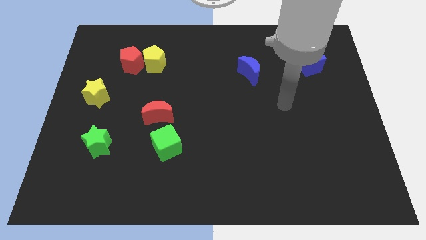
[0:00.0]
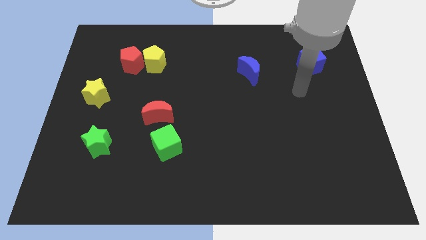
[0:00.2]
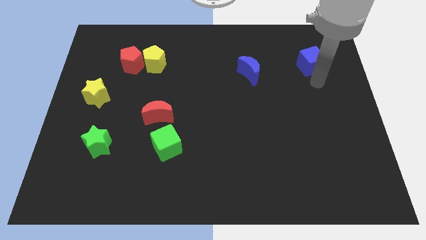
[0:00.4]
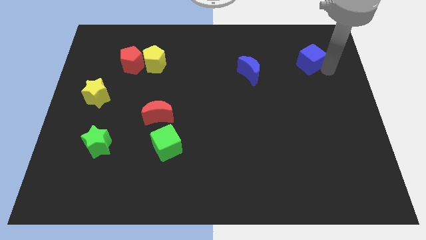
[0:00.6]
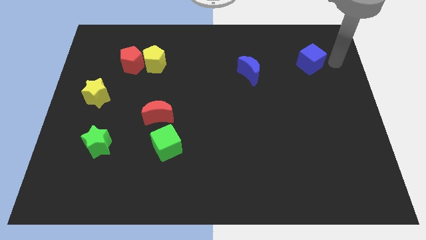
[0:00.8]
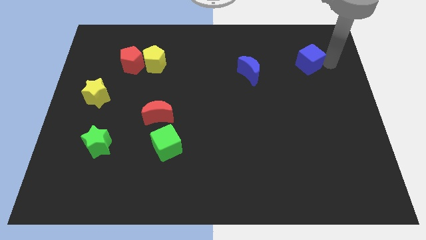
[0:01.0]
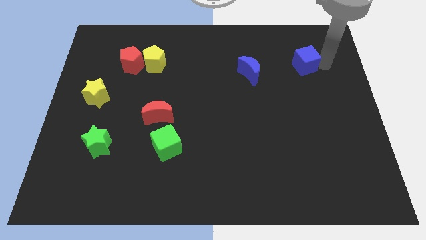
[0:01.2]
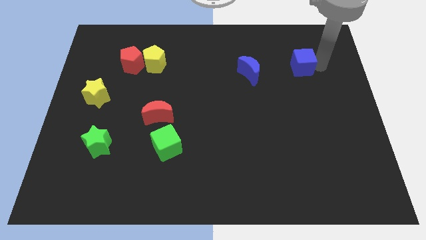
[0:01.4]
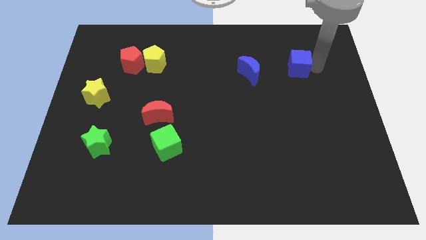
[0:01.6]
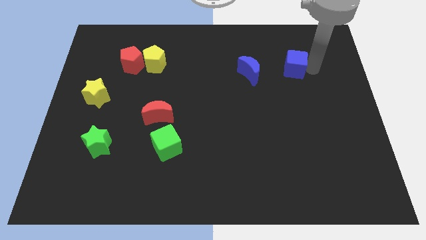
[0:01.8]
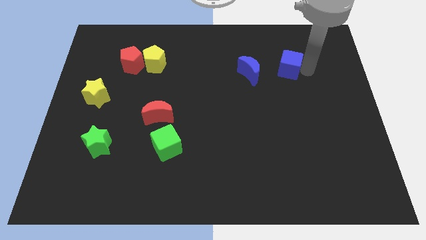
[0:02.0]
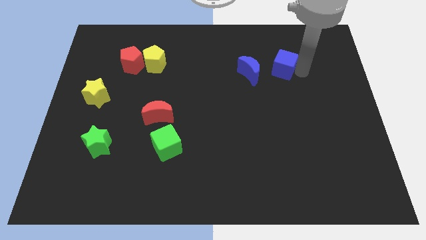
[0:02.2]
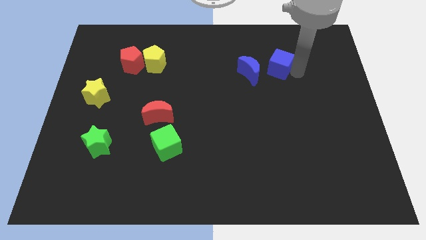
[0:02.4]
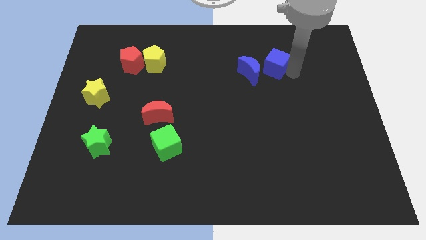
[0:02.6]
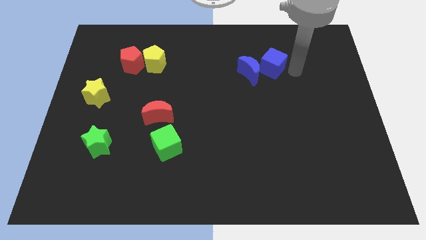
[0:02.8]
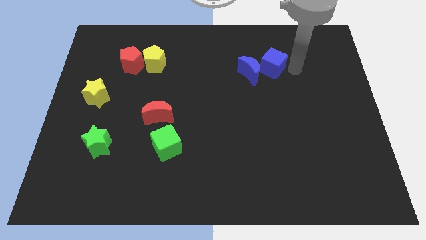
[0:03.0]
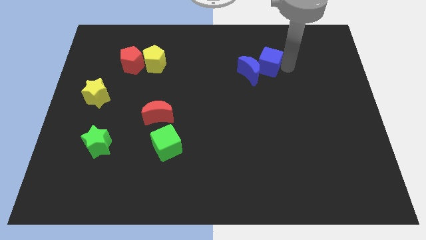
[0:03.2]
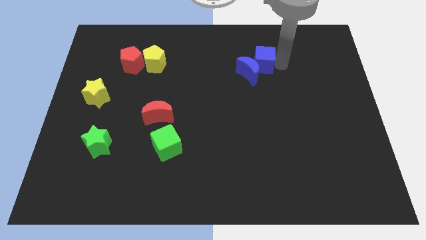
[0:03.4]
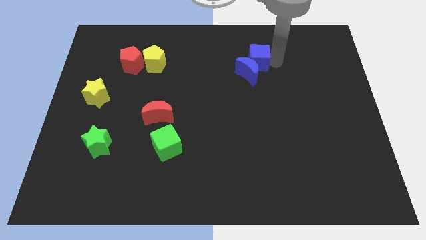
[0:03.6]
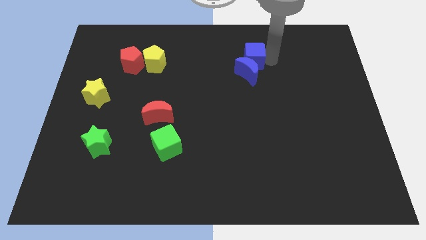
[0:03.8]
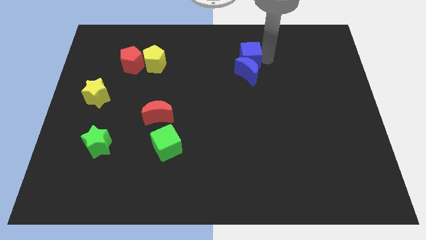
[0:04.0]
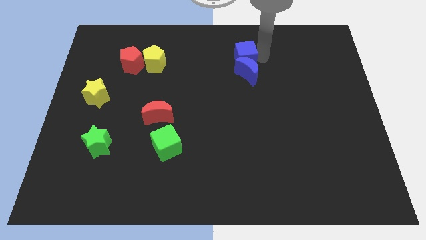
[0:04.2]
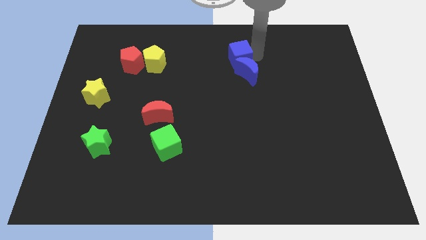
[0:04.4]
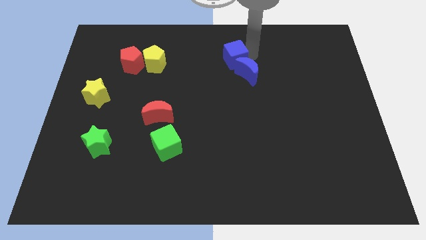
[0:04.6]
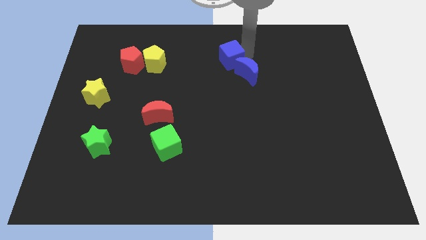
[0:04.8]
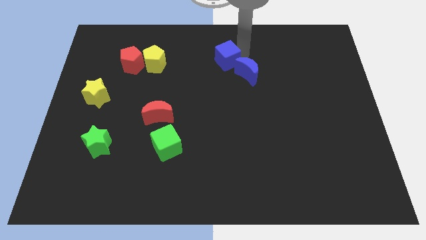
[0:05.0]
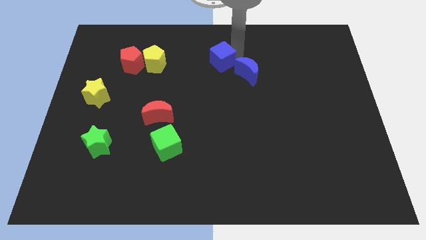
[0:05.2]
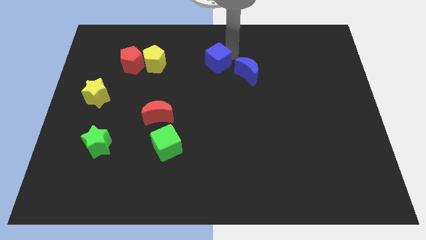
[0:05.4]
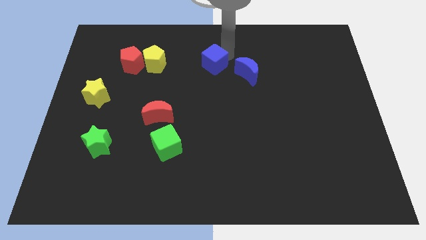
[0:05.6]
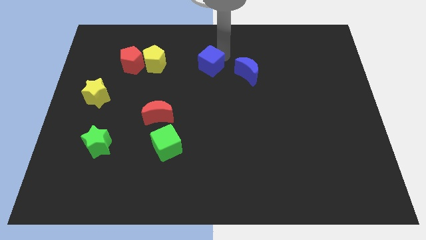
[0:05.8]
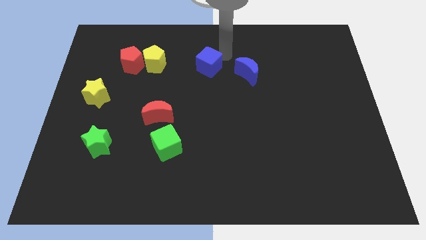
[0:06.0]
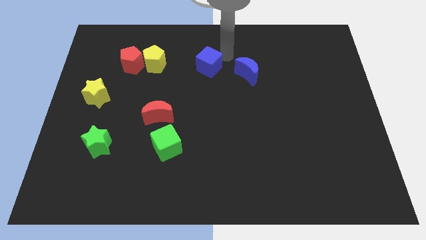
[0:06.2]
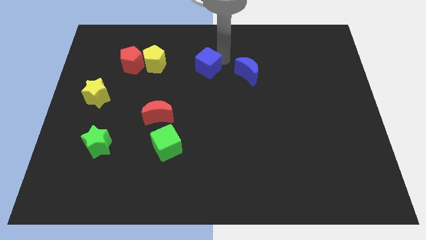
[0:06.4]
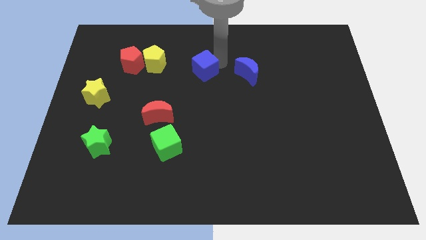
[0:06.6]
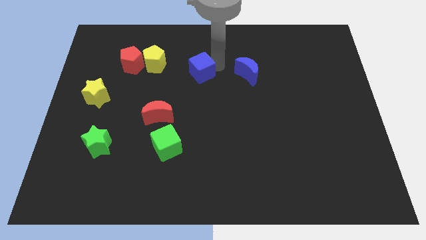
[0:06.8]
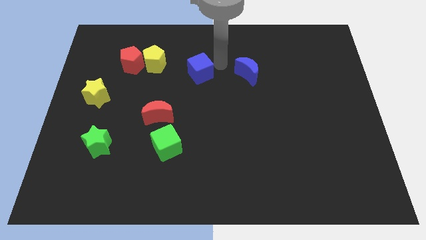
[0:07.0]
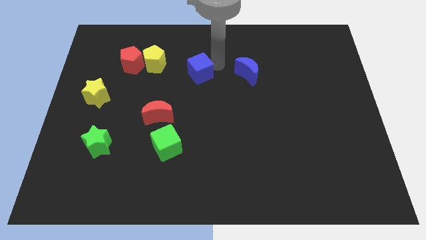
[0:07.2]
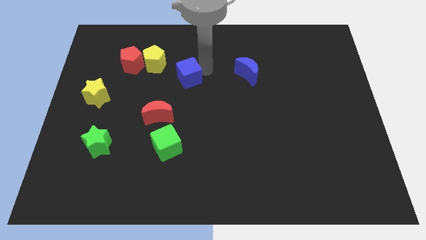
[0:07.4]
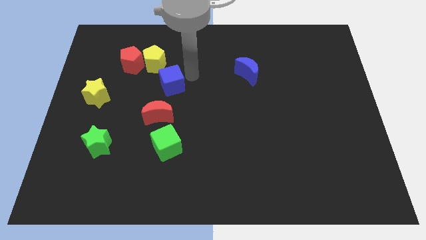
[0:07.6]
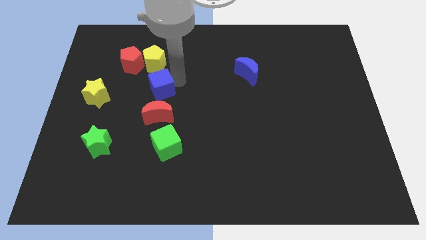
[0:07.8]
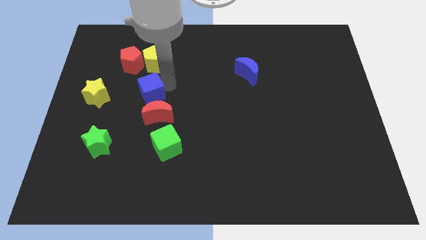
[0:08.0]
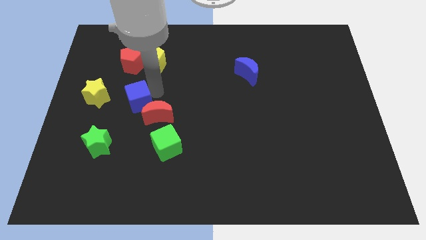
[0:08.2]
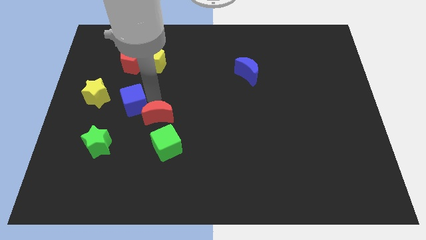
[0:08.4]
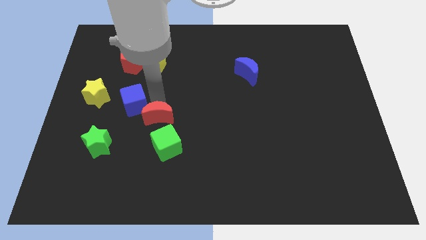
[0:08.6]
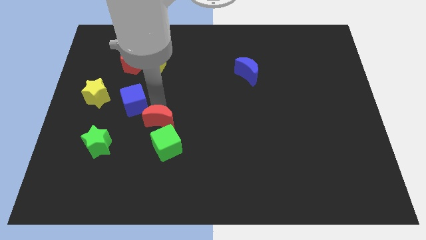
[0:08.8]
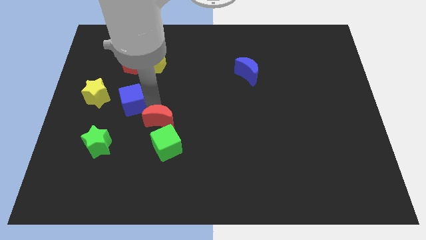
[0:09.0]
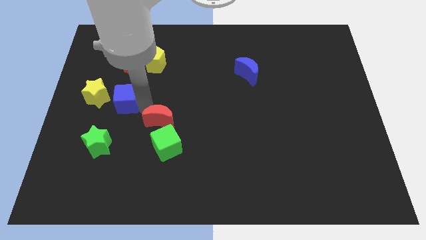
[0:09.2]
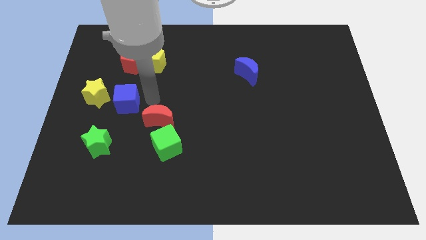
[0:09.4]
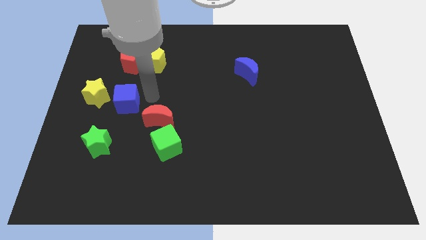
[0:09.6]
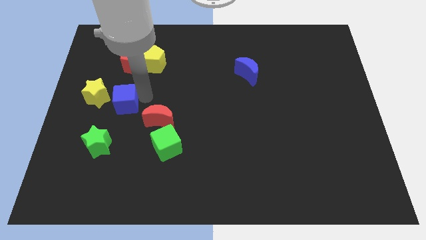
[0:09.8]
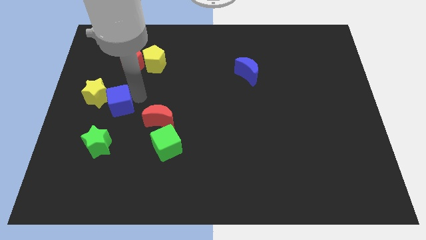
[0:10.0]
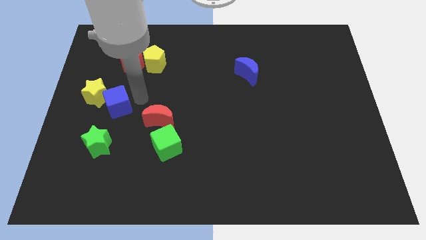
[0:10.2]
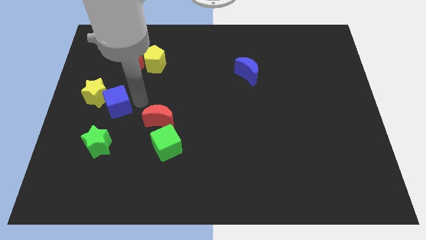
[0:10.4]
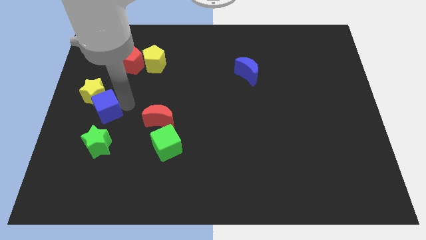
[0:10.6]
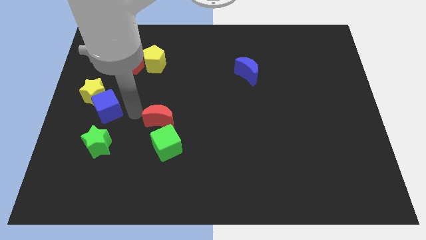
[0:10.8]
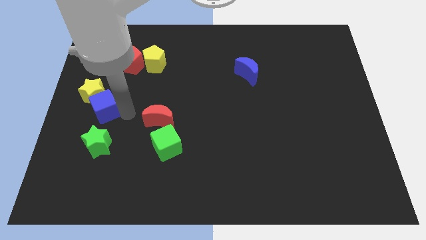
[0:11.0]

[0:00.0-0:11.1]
slide the blue cube to the left side of the board

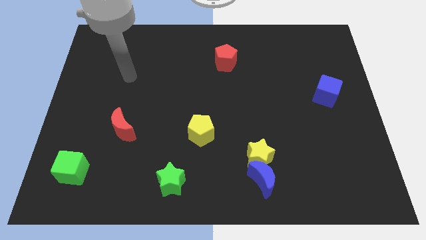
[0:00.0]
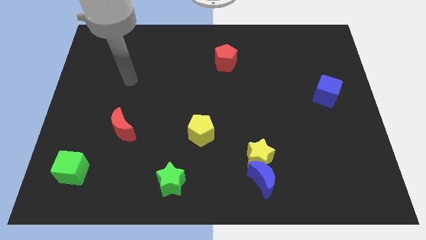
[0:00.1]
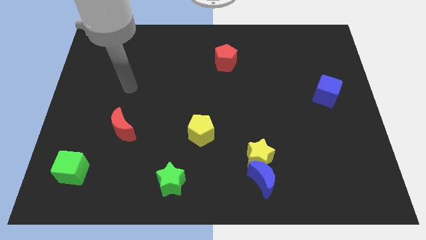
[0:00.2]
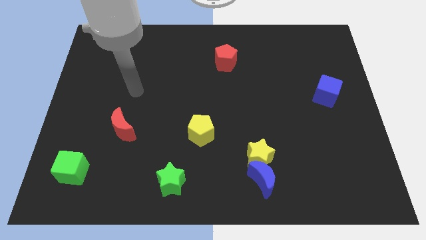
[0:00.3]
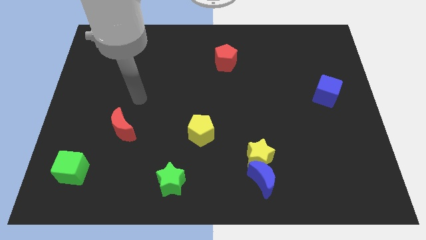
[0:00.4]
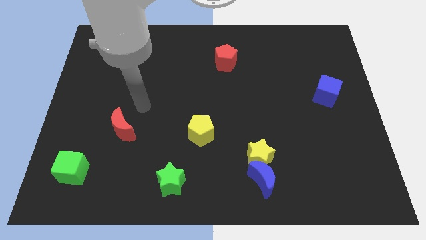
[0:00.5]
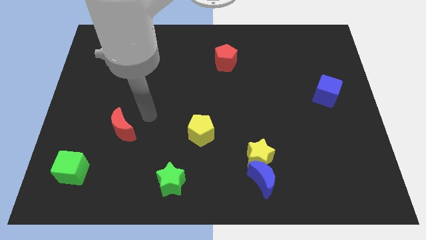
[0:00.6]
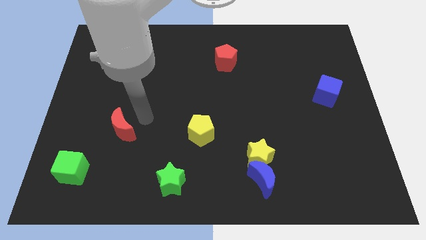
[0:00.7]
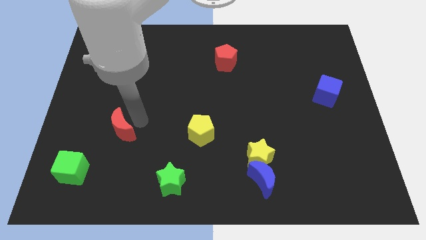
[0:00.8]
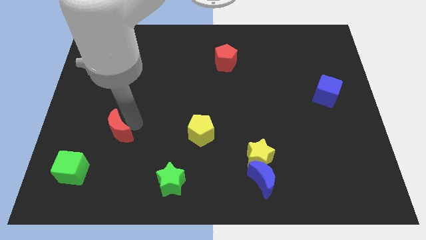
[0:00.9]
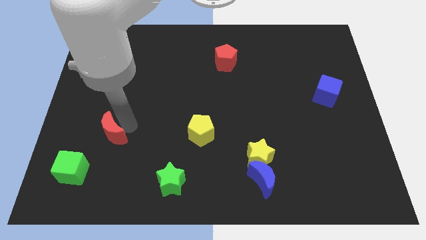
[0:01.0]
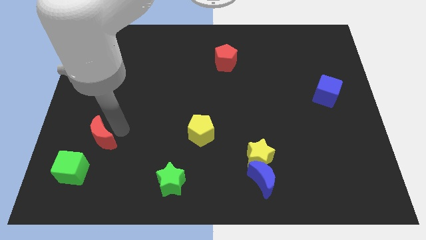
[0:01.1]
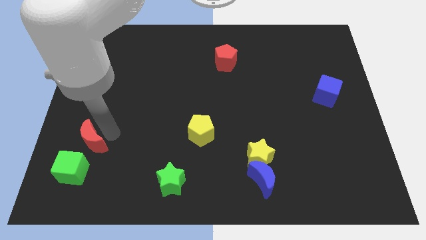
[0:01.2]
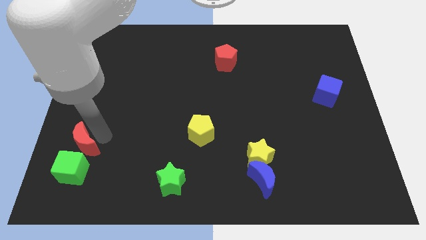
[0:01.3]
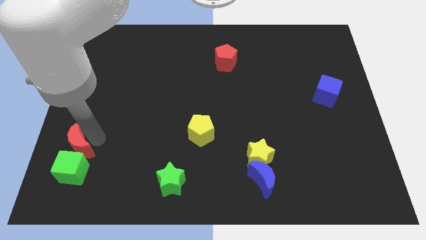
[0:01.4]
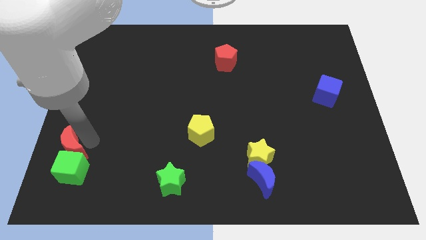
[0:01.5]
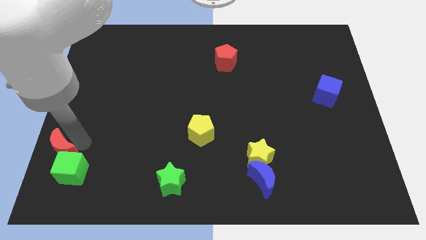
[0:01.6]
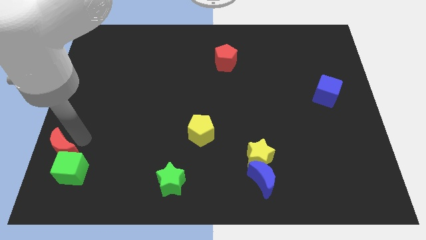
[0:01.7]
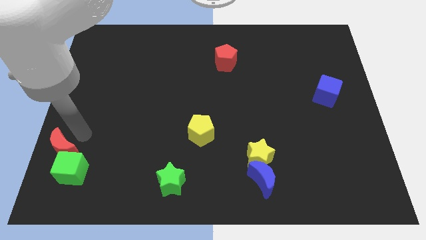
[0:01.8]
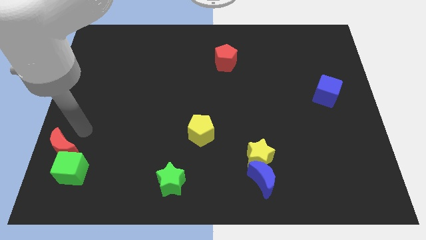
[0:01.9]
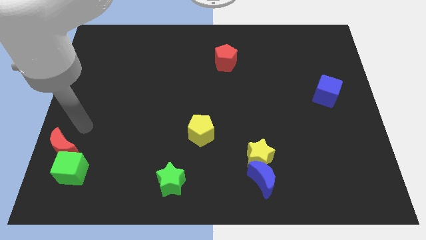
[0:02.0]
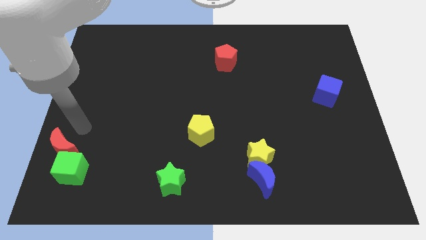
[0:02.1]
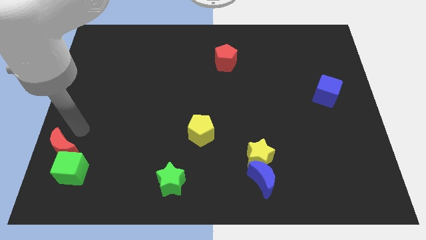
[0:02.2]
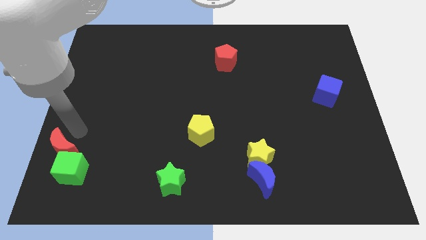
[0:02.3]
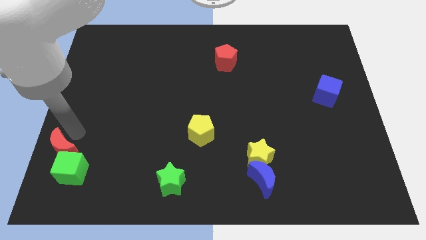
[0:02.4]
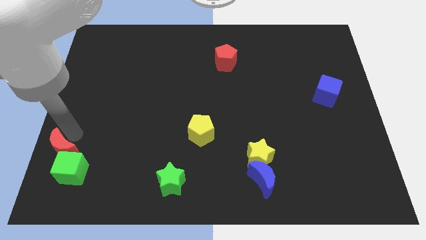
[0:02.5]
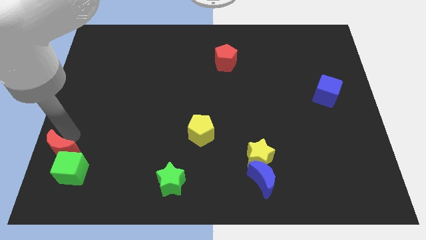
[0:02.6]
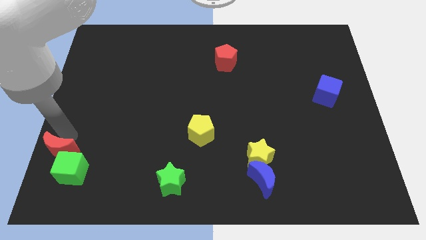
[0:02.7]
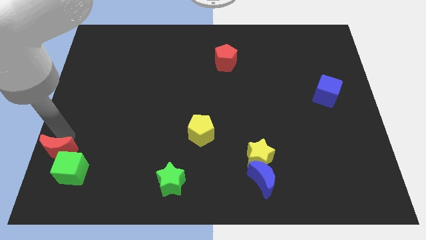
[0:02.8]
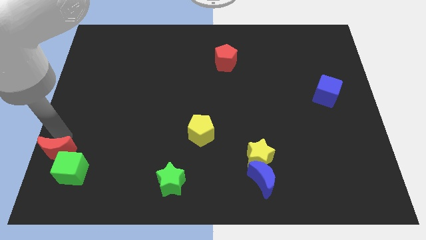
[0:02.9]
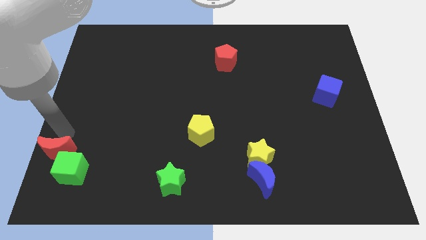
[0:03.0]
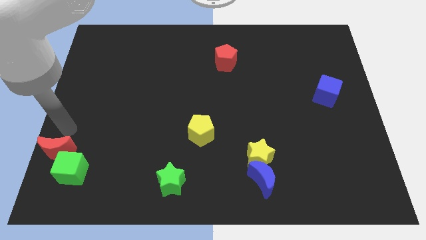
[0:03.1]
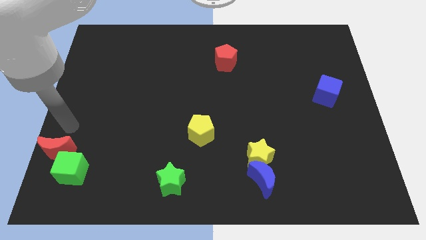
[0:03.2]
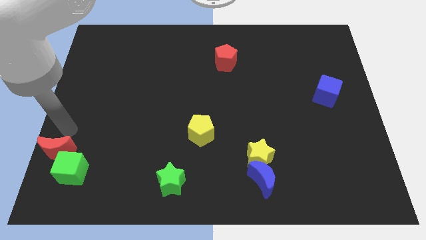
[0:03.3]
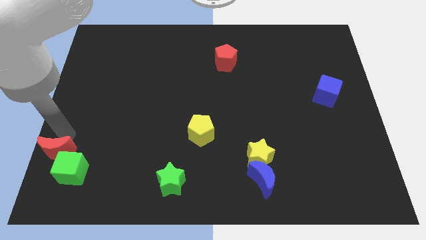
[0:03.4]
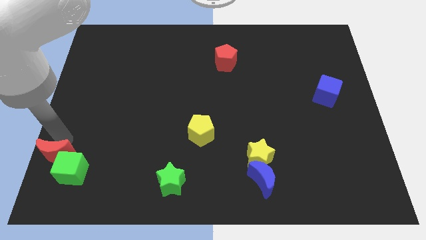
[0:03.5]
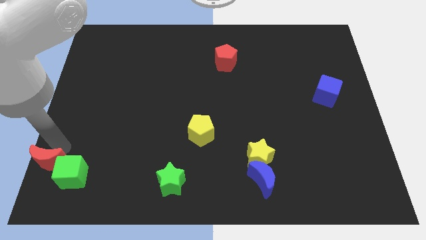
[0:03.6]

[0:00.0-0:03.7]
slide the red moon to the bottom left corner
